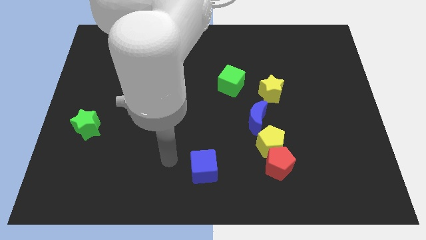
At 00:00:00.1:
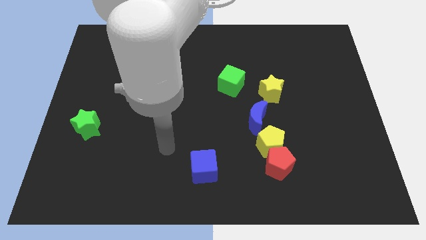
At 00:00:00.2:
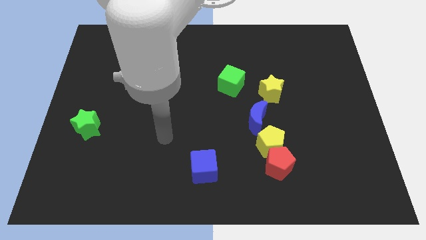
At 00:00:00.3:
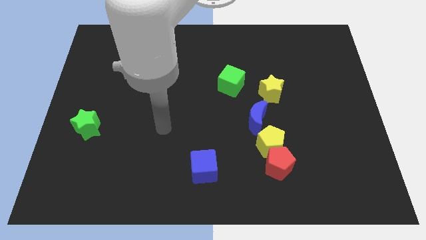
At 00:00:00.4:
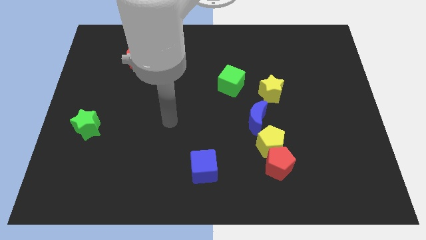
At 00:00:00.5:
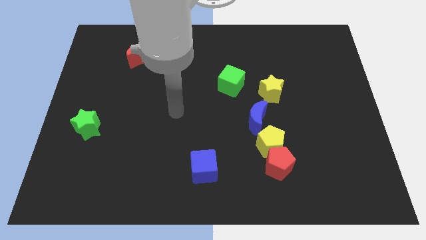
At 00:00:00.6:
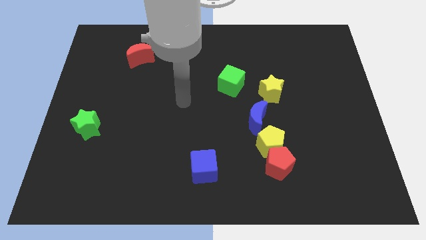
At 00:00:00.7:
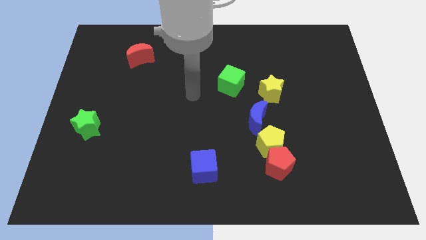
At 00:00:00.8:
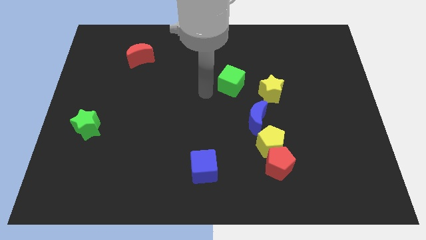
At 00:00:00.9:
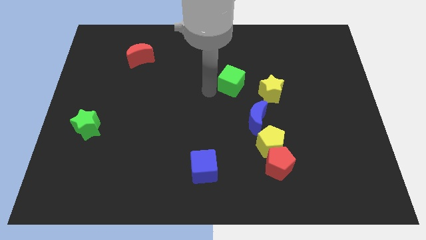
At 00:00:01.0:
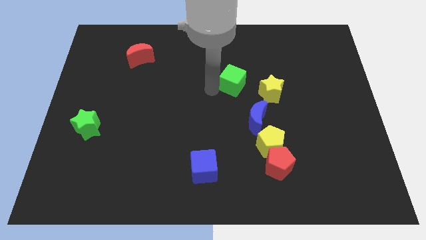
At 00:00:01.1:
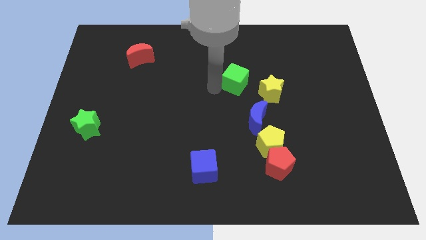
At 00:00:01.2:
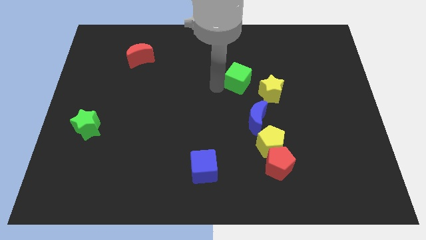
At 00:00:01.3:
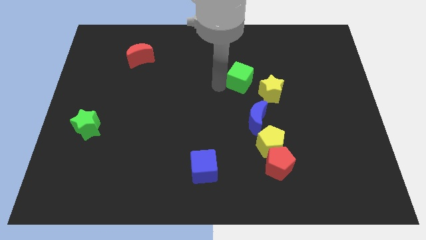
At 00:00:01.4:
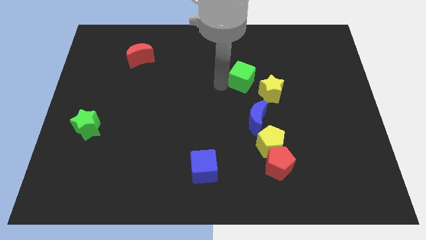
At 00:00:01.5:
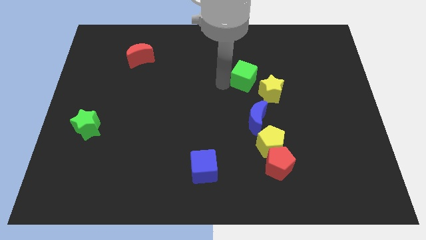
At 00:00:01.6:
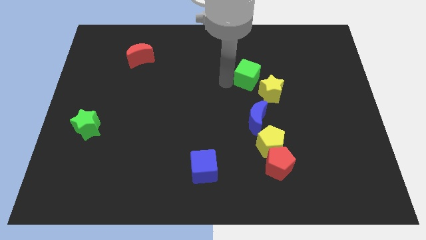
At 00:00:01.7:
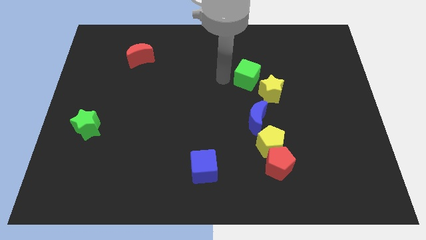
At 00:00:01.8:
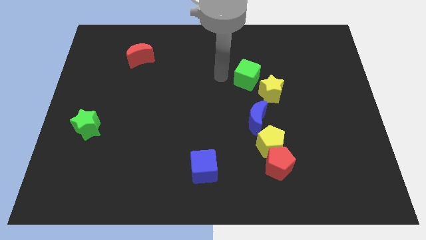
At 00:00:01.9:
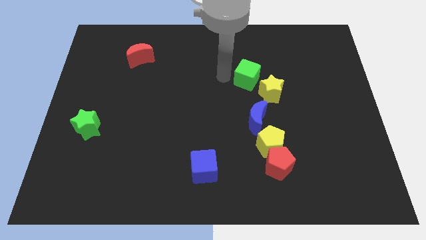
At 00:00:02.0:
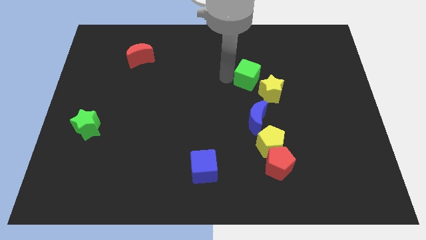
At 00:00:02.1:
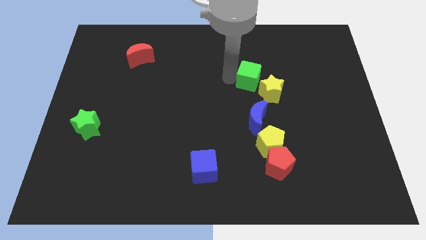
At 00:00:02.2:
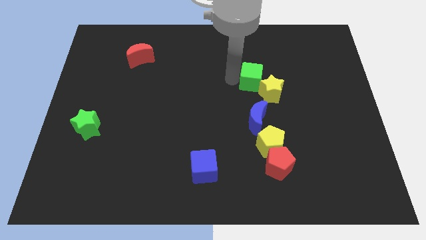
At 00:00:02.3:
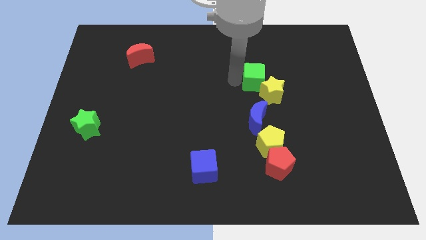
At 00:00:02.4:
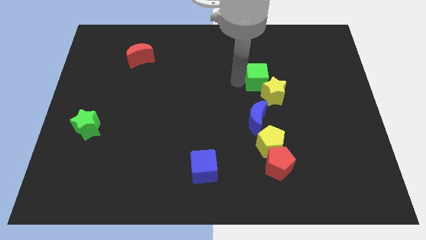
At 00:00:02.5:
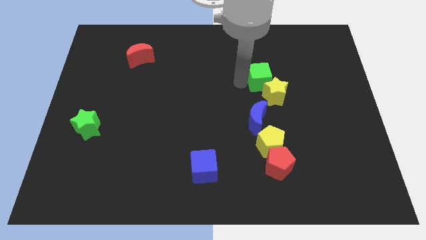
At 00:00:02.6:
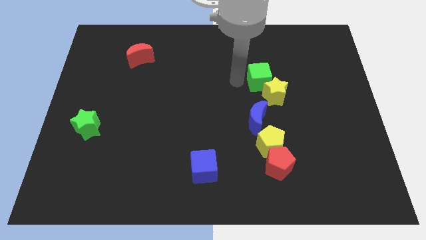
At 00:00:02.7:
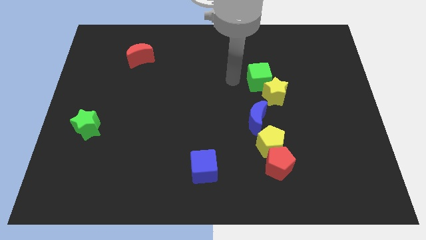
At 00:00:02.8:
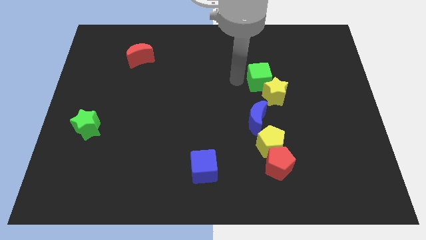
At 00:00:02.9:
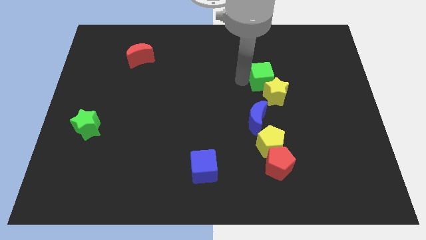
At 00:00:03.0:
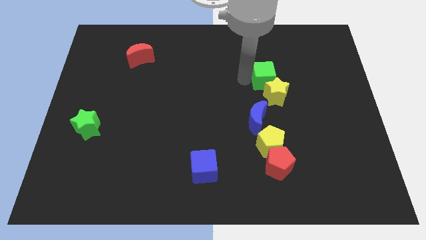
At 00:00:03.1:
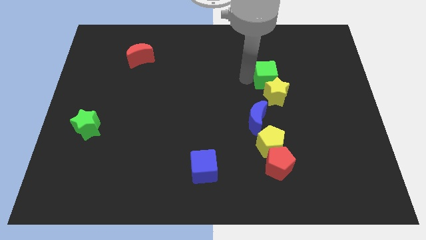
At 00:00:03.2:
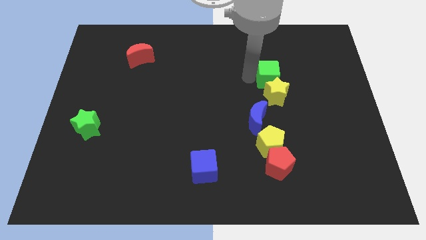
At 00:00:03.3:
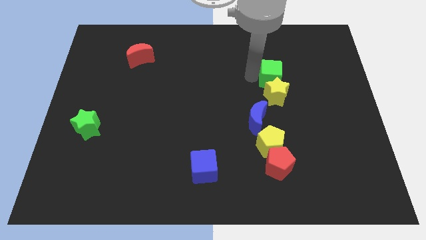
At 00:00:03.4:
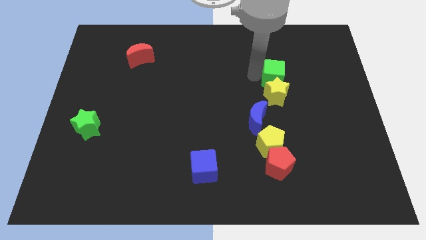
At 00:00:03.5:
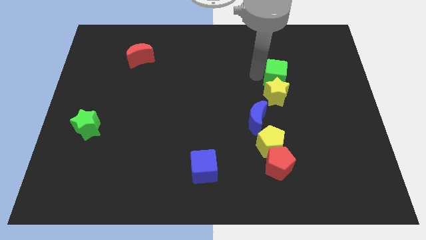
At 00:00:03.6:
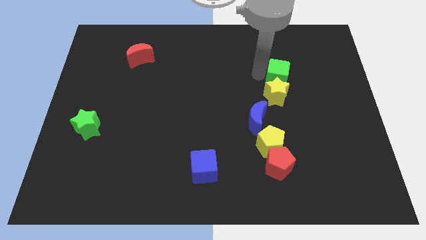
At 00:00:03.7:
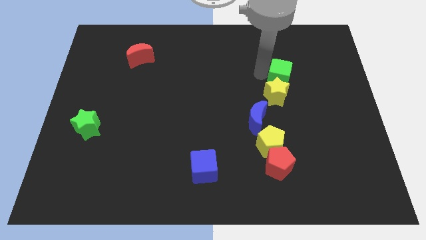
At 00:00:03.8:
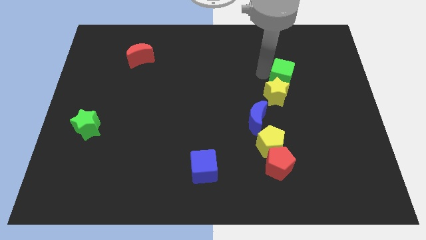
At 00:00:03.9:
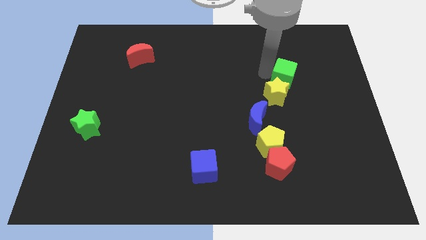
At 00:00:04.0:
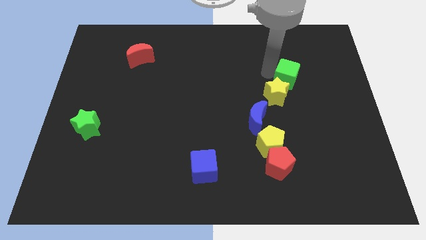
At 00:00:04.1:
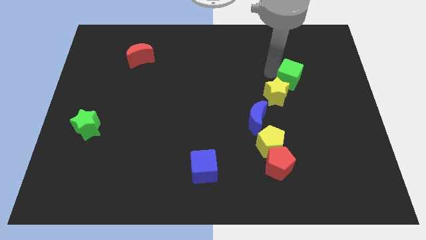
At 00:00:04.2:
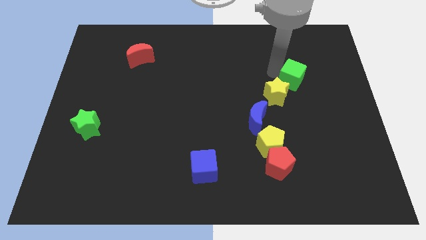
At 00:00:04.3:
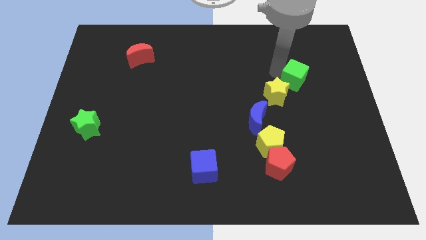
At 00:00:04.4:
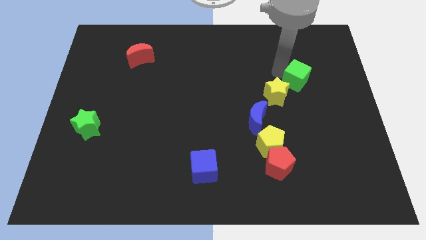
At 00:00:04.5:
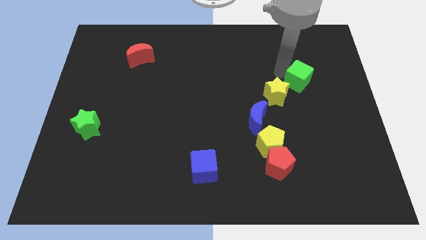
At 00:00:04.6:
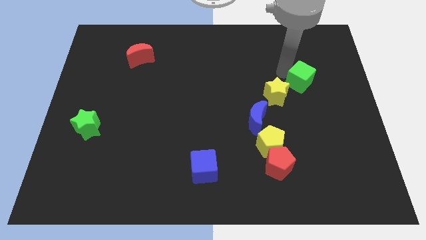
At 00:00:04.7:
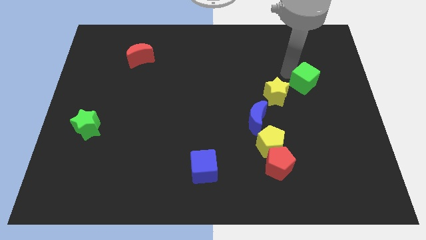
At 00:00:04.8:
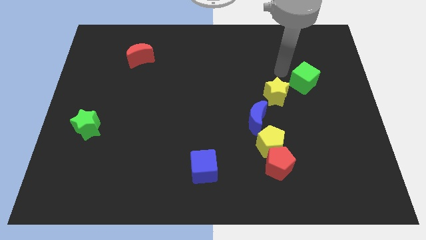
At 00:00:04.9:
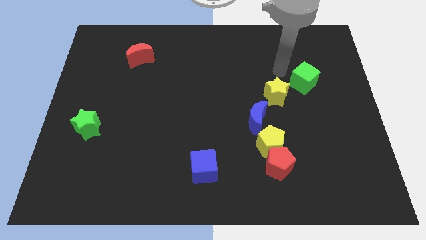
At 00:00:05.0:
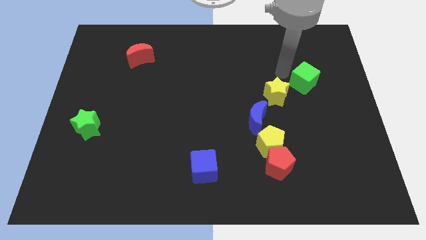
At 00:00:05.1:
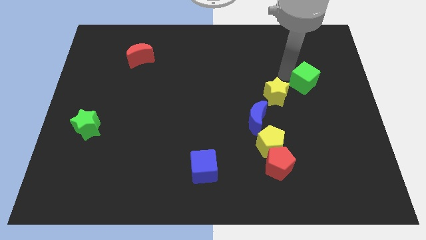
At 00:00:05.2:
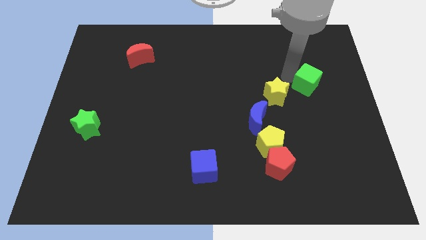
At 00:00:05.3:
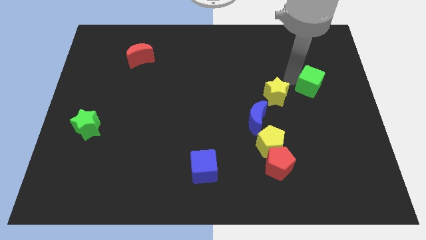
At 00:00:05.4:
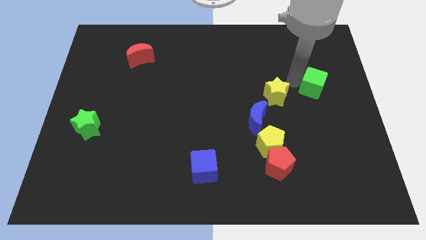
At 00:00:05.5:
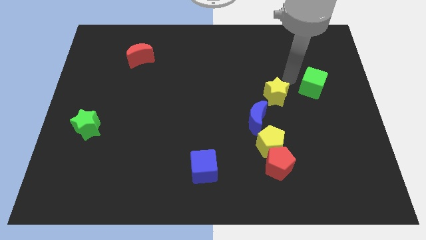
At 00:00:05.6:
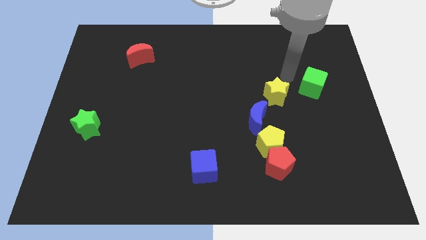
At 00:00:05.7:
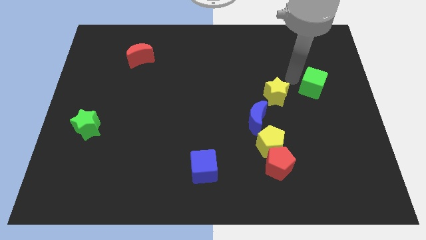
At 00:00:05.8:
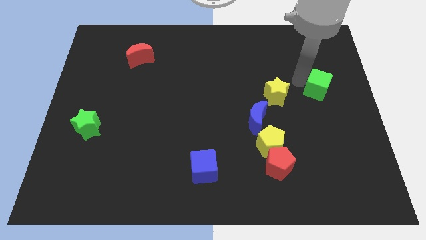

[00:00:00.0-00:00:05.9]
push the green cube to the right side

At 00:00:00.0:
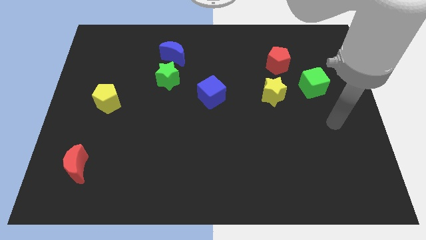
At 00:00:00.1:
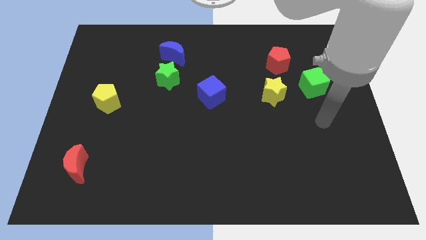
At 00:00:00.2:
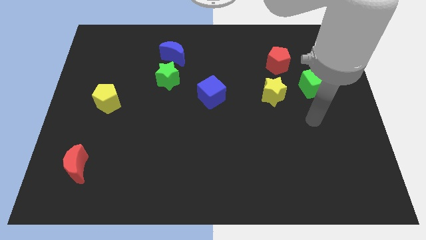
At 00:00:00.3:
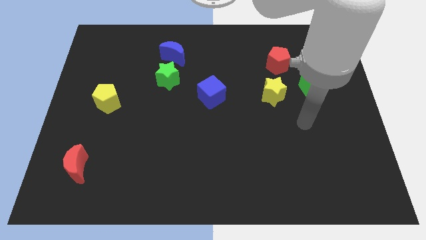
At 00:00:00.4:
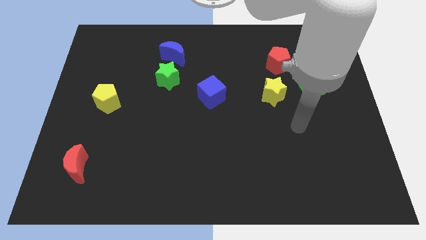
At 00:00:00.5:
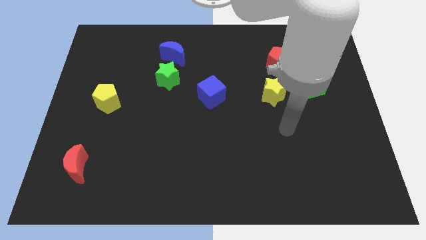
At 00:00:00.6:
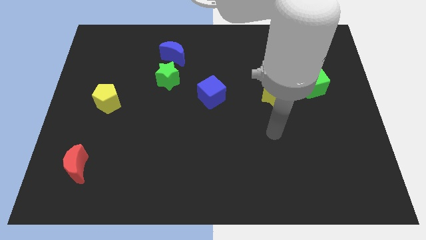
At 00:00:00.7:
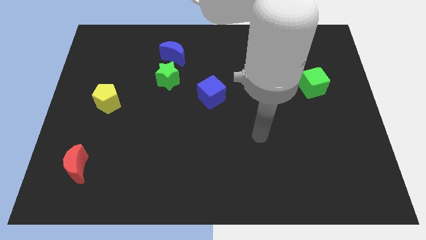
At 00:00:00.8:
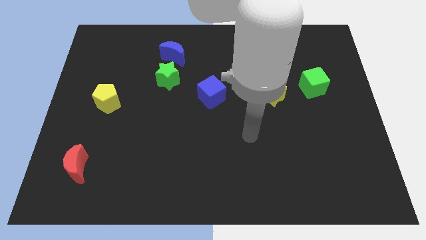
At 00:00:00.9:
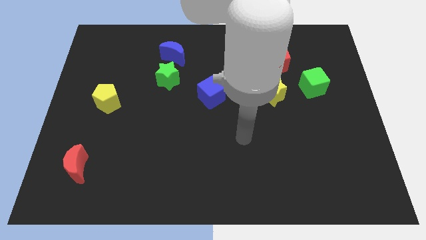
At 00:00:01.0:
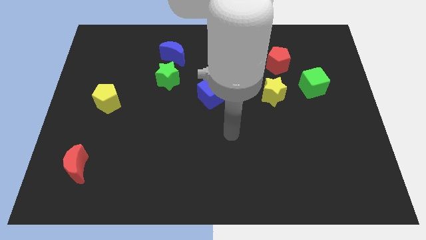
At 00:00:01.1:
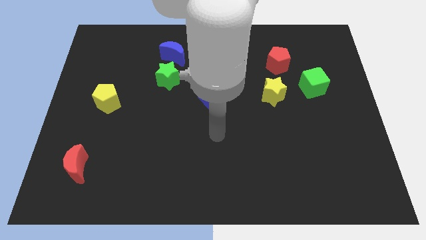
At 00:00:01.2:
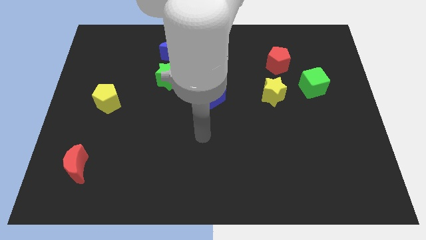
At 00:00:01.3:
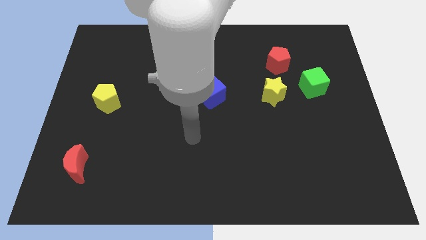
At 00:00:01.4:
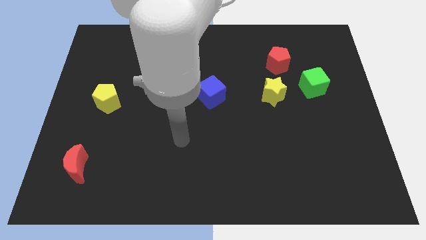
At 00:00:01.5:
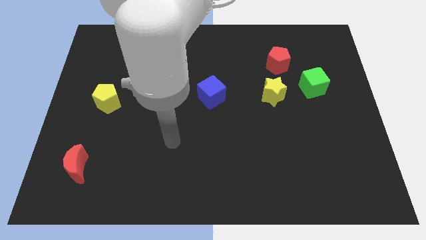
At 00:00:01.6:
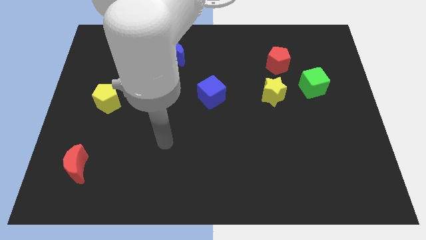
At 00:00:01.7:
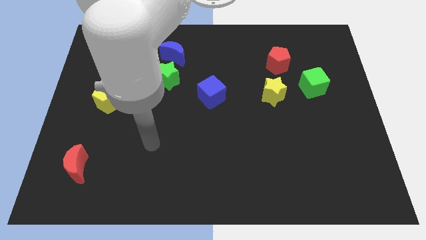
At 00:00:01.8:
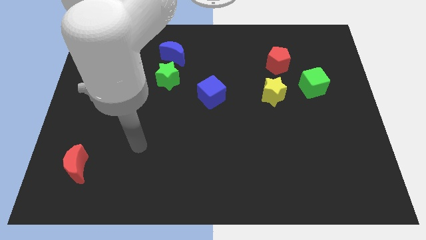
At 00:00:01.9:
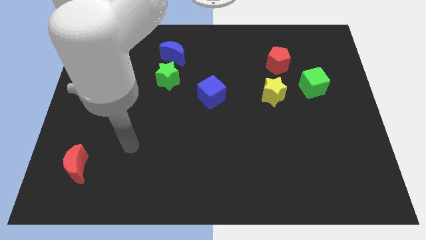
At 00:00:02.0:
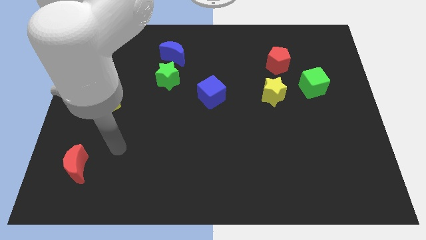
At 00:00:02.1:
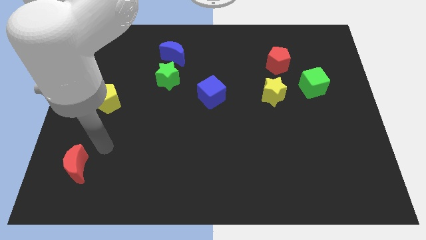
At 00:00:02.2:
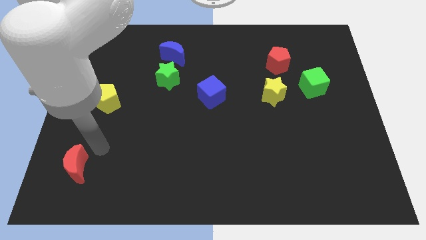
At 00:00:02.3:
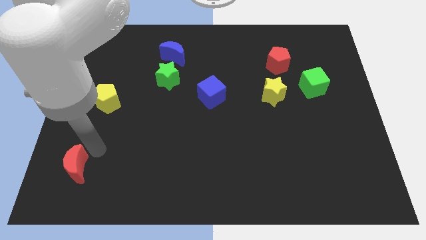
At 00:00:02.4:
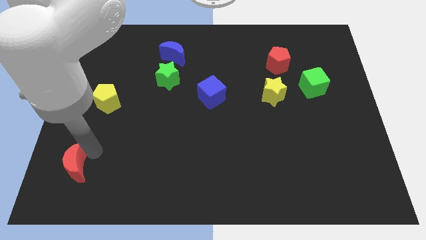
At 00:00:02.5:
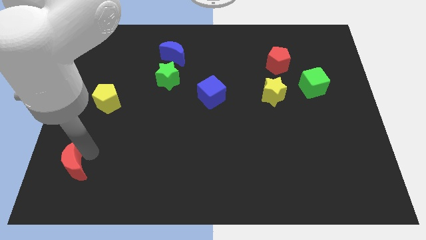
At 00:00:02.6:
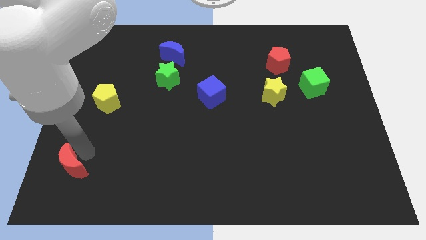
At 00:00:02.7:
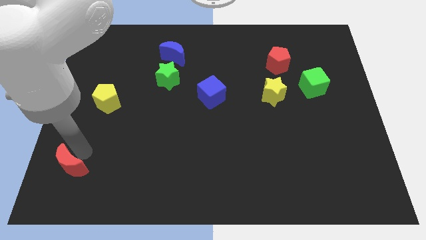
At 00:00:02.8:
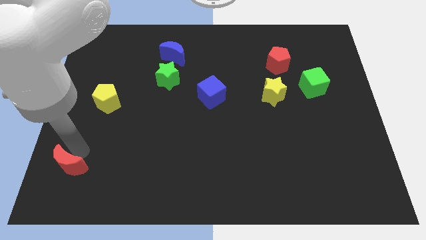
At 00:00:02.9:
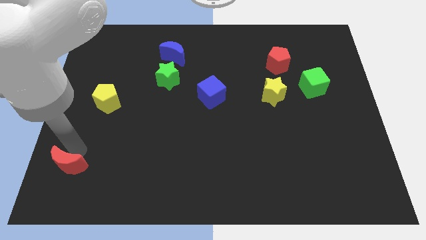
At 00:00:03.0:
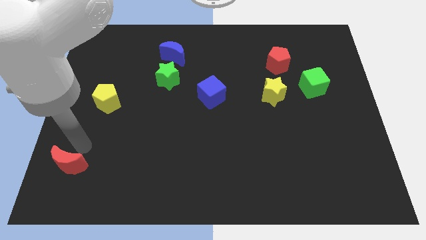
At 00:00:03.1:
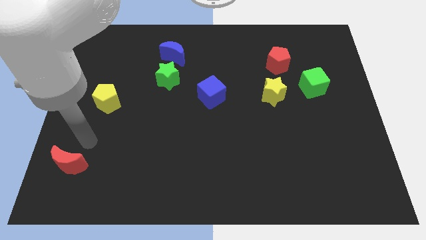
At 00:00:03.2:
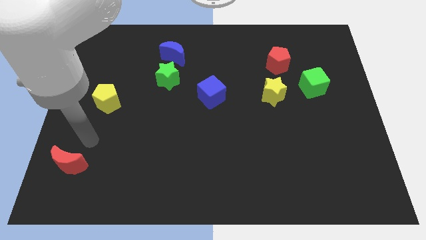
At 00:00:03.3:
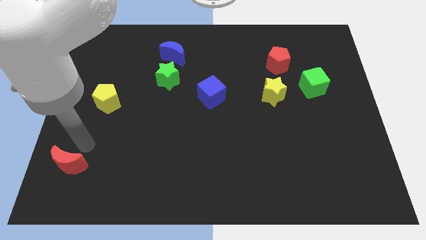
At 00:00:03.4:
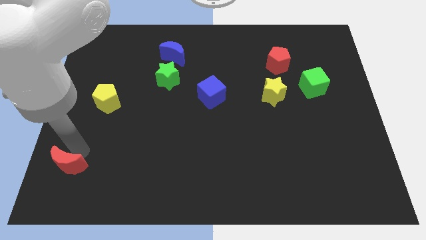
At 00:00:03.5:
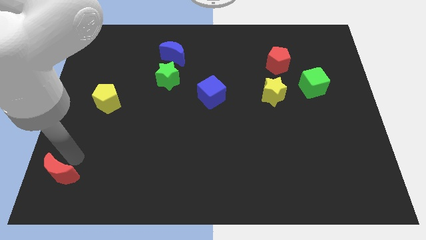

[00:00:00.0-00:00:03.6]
move the red moon to the lower left corner
